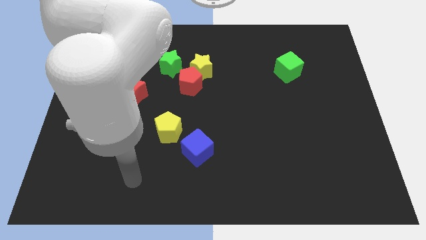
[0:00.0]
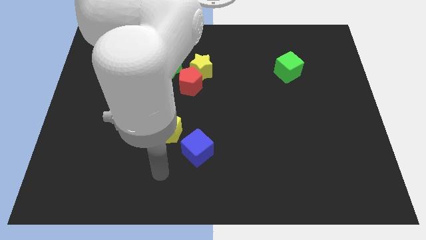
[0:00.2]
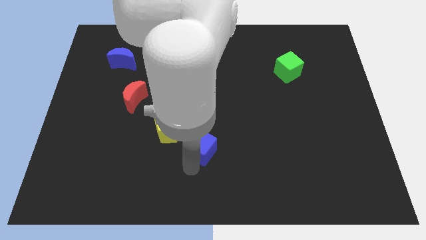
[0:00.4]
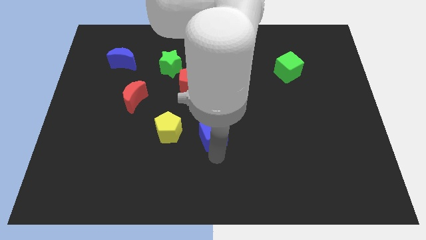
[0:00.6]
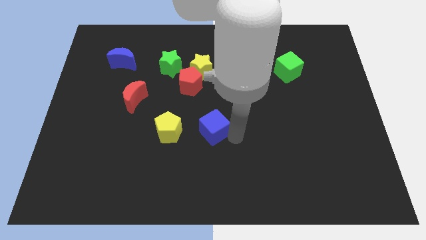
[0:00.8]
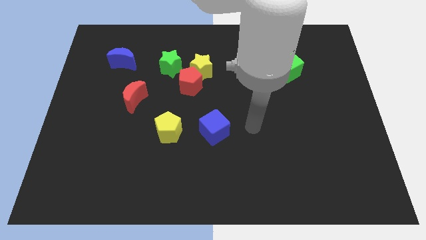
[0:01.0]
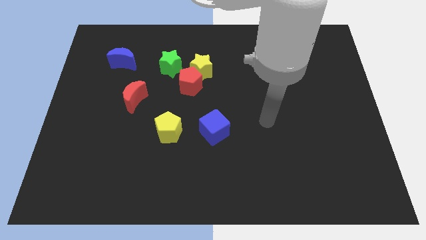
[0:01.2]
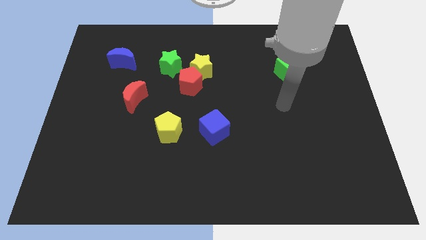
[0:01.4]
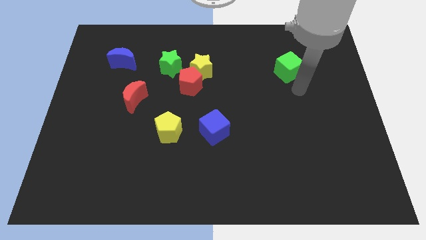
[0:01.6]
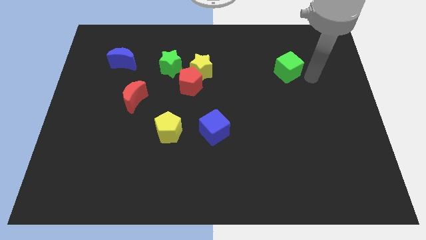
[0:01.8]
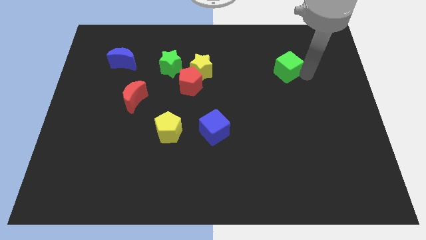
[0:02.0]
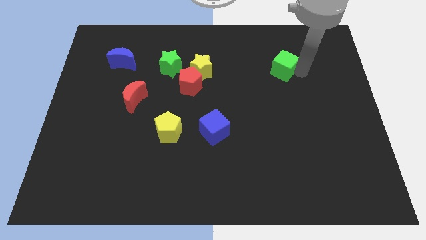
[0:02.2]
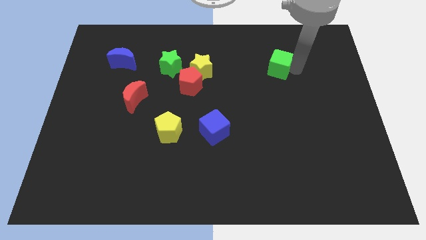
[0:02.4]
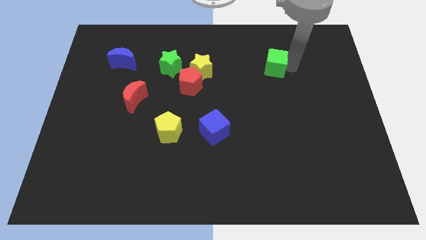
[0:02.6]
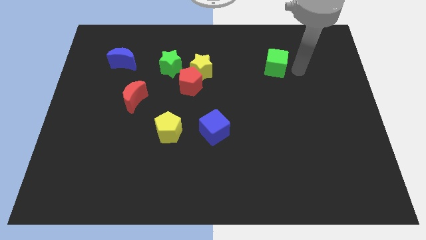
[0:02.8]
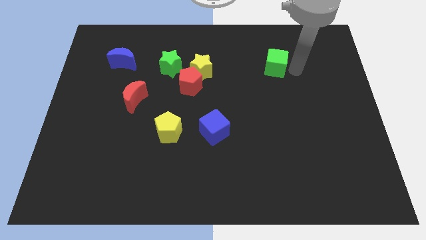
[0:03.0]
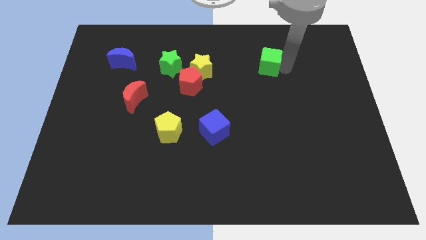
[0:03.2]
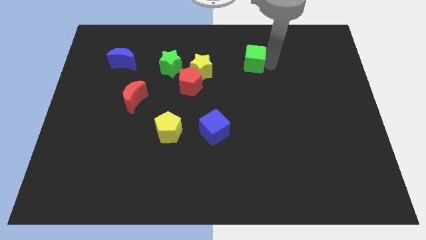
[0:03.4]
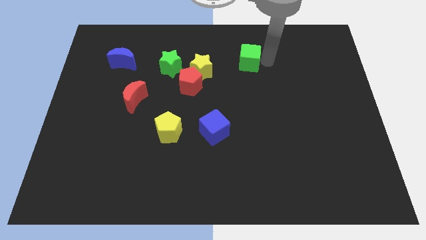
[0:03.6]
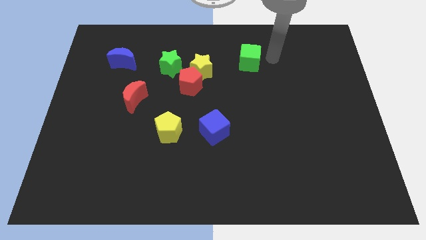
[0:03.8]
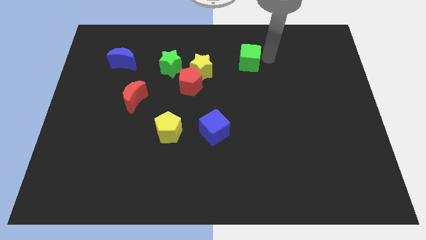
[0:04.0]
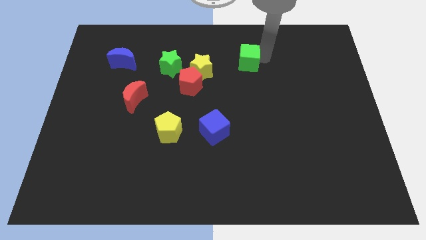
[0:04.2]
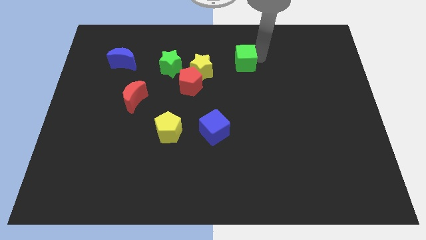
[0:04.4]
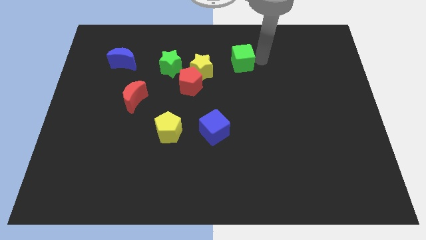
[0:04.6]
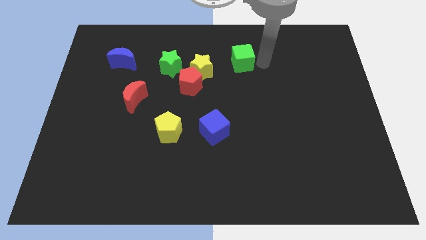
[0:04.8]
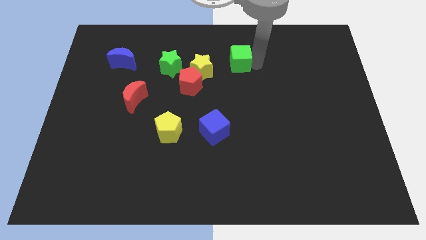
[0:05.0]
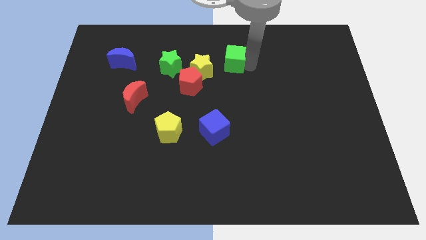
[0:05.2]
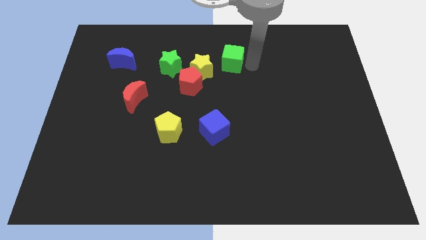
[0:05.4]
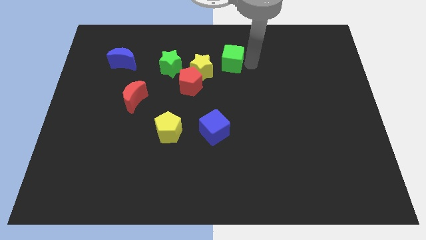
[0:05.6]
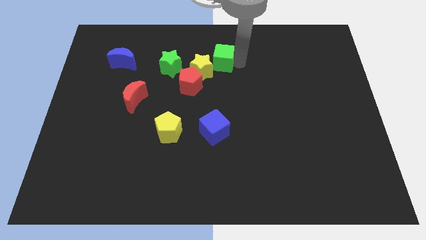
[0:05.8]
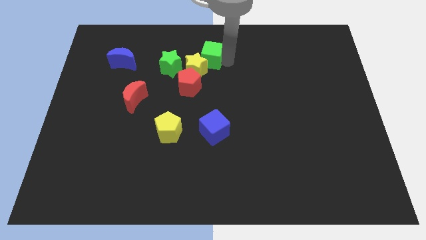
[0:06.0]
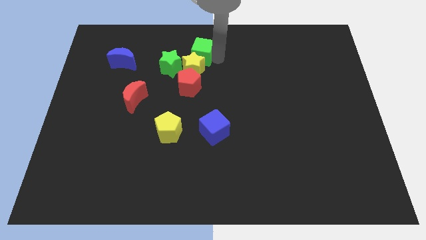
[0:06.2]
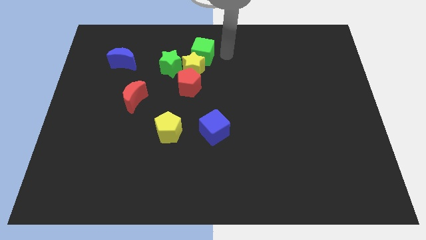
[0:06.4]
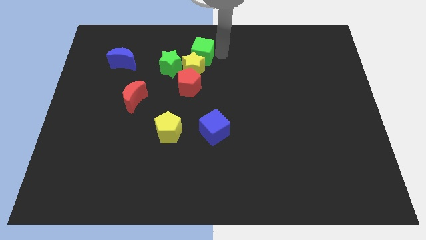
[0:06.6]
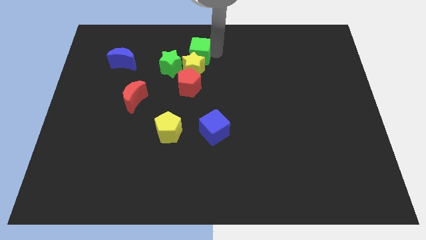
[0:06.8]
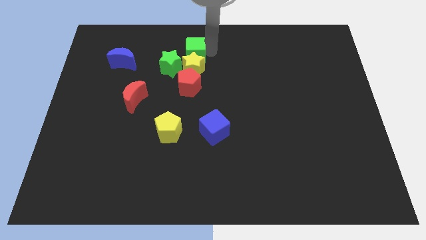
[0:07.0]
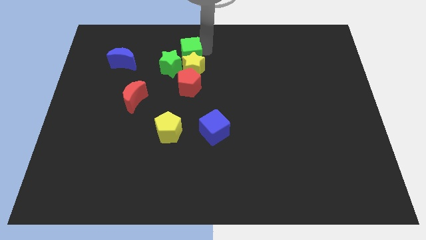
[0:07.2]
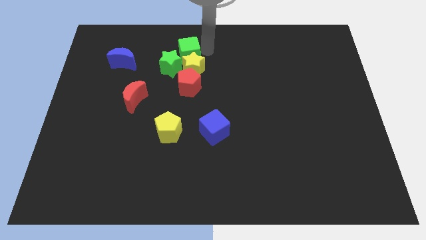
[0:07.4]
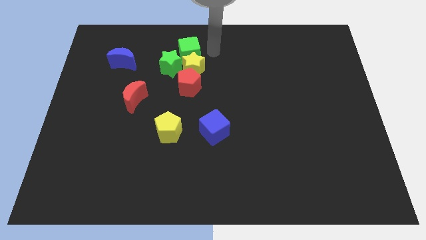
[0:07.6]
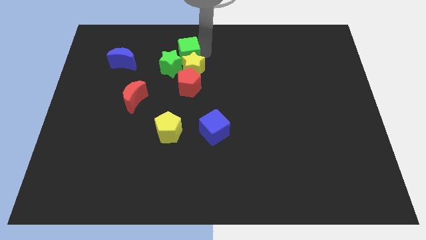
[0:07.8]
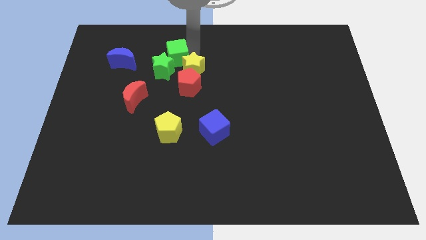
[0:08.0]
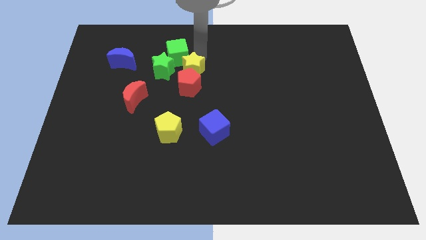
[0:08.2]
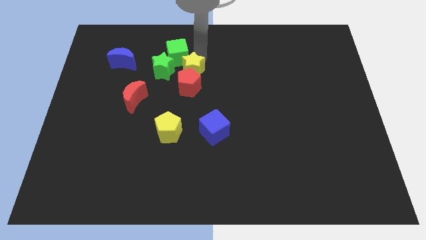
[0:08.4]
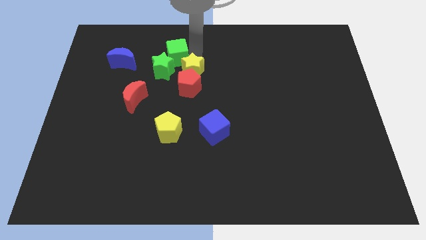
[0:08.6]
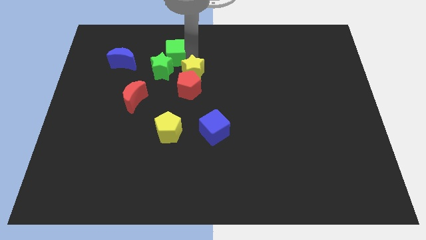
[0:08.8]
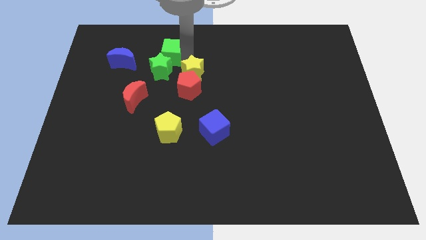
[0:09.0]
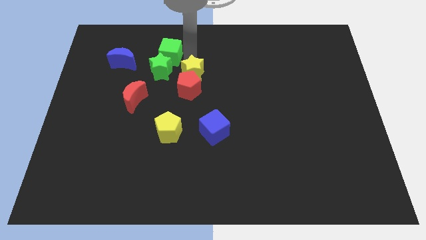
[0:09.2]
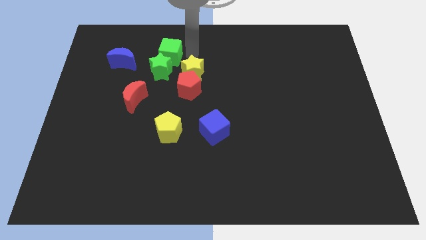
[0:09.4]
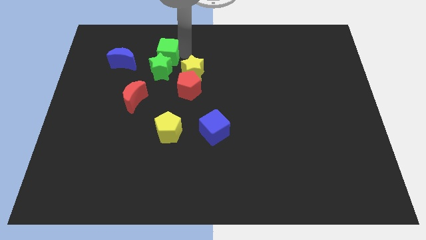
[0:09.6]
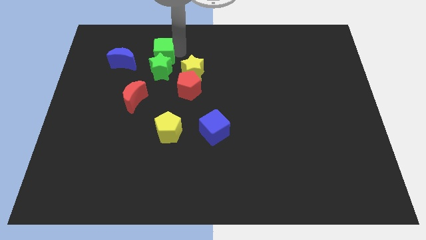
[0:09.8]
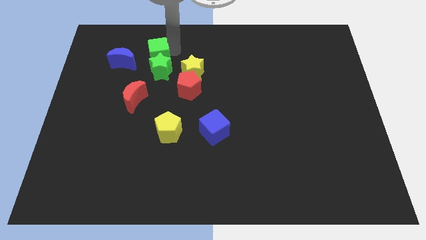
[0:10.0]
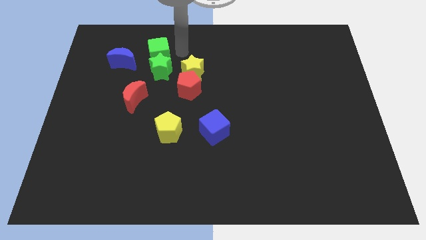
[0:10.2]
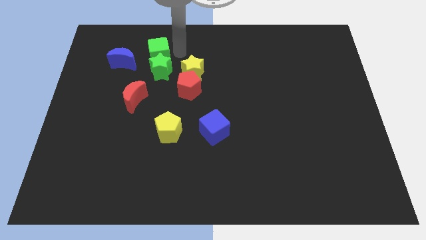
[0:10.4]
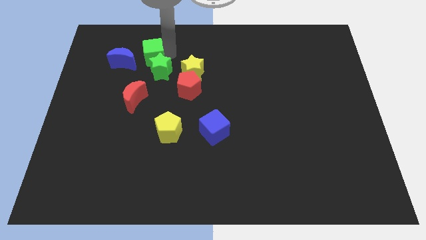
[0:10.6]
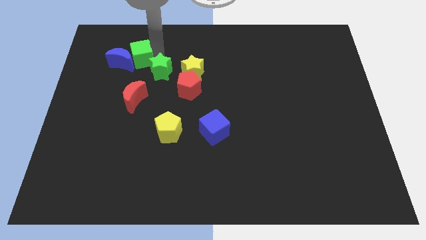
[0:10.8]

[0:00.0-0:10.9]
move the green cube close to the blue moon

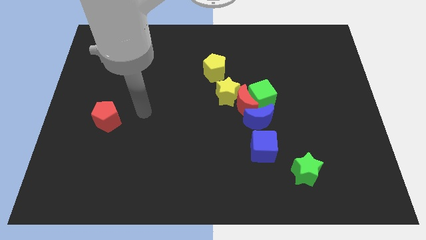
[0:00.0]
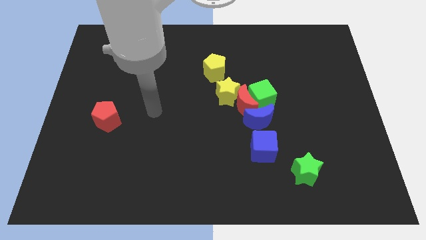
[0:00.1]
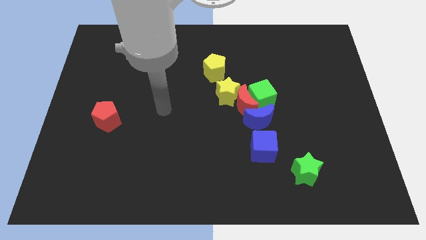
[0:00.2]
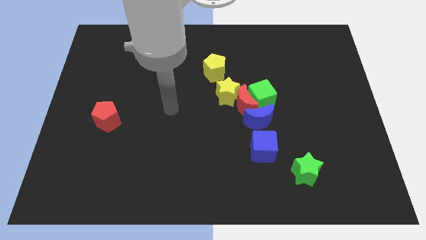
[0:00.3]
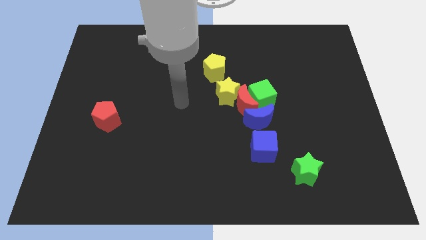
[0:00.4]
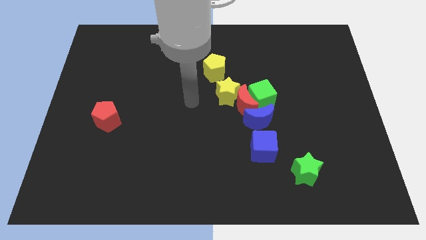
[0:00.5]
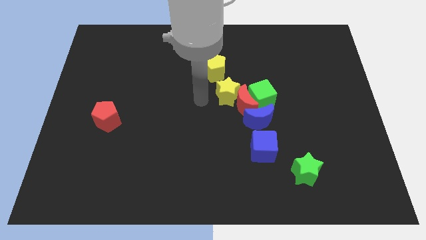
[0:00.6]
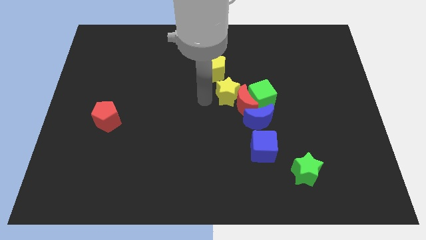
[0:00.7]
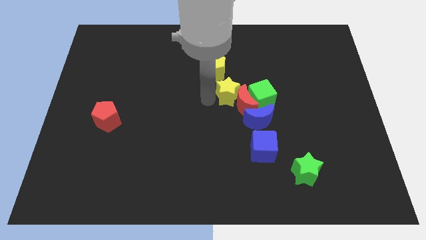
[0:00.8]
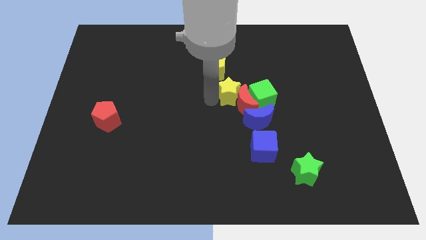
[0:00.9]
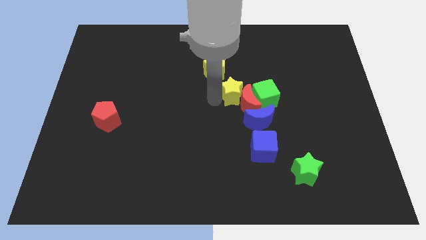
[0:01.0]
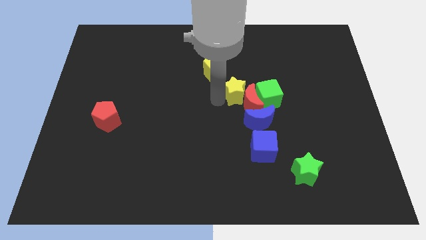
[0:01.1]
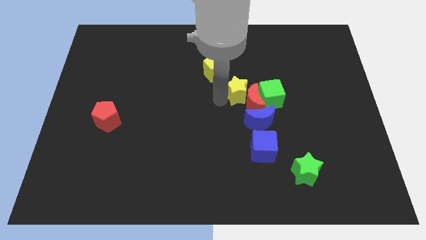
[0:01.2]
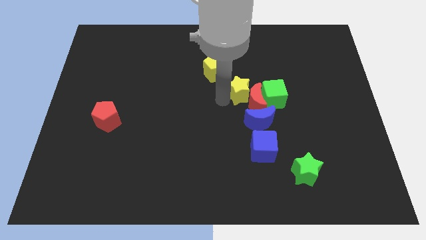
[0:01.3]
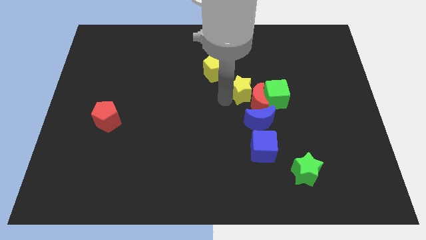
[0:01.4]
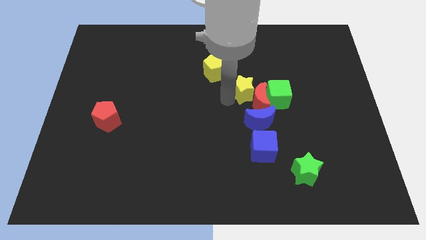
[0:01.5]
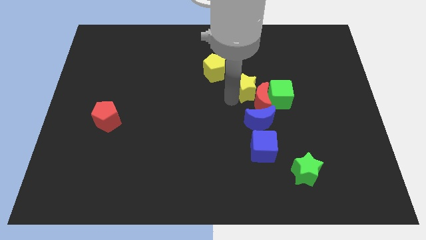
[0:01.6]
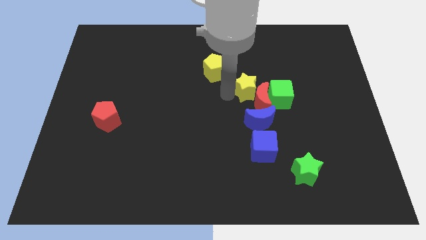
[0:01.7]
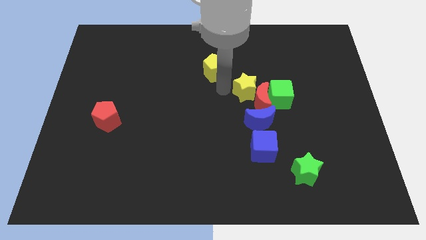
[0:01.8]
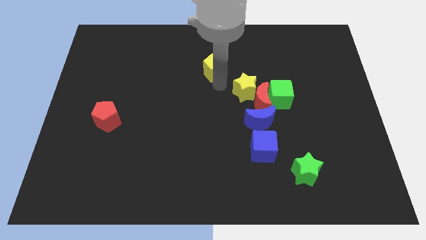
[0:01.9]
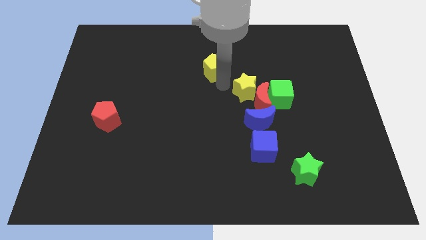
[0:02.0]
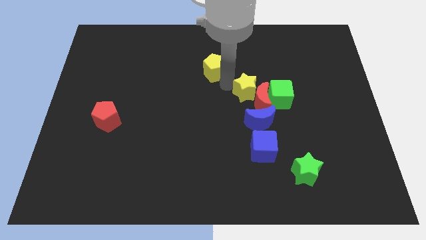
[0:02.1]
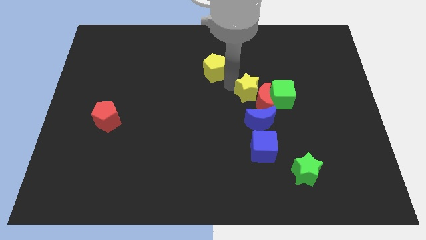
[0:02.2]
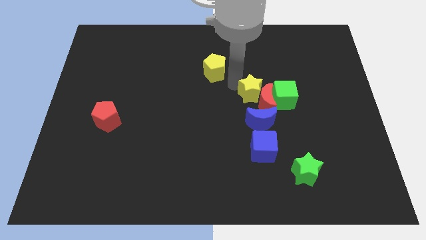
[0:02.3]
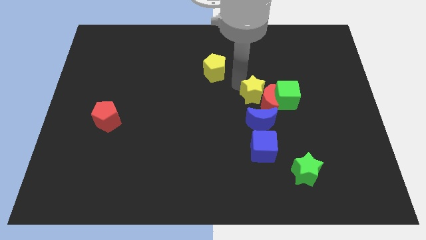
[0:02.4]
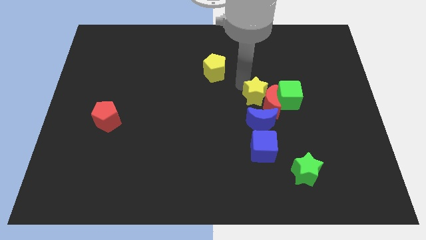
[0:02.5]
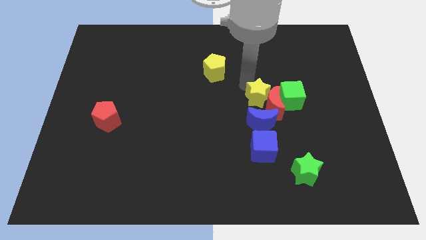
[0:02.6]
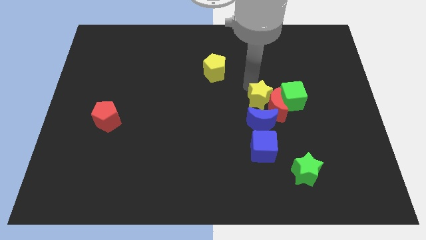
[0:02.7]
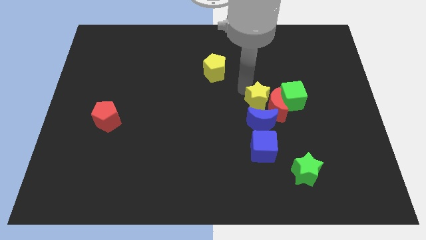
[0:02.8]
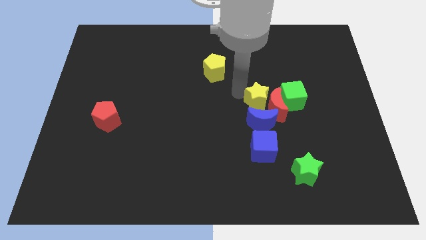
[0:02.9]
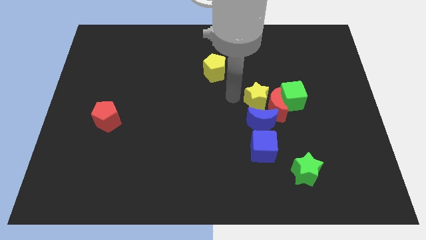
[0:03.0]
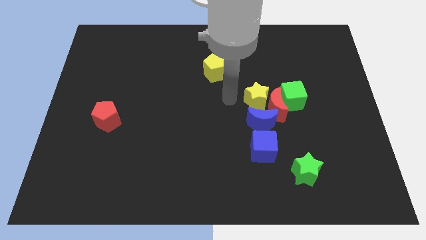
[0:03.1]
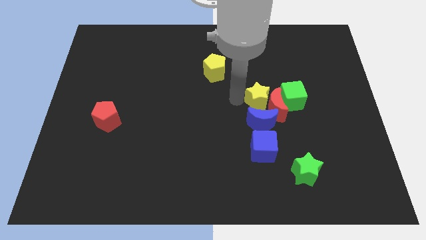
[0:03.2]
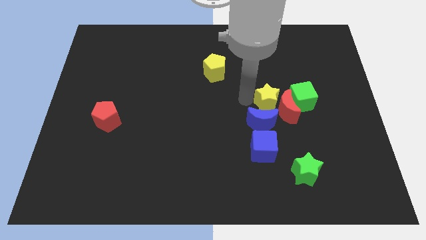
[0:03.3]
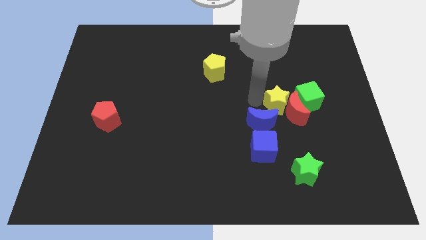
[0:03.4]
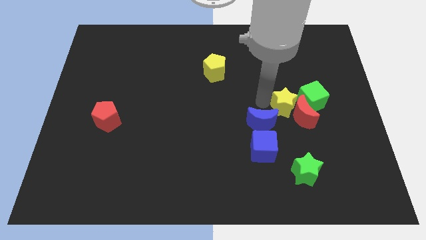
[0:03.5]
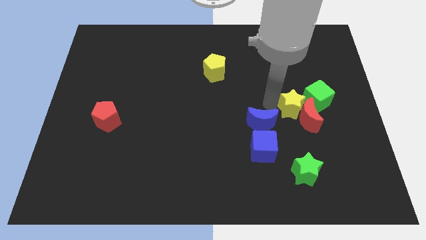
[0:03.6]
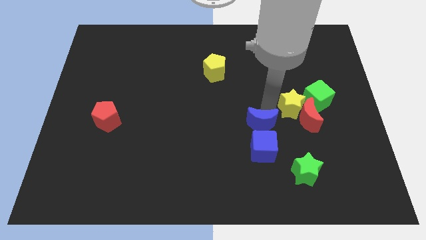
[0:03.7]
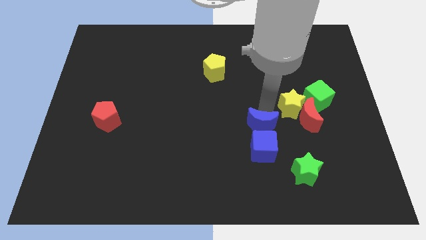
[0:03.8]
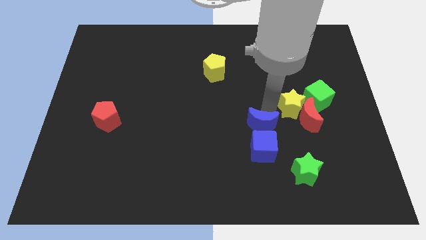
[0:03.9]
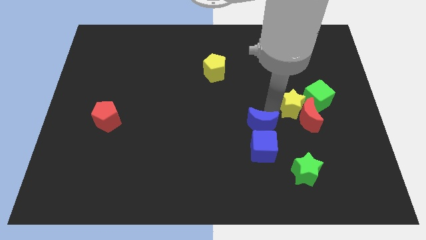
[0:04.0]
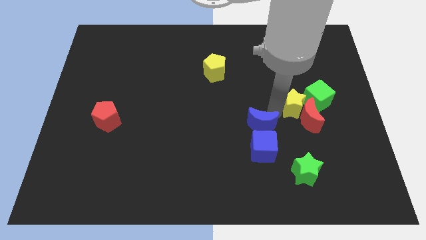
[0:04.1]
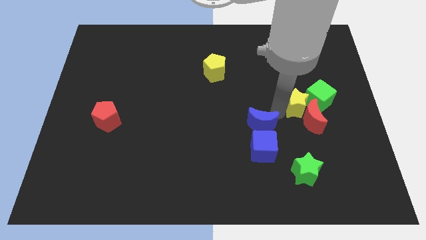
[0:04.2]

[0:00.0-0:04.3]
push the yellow star close to the green cube
